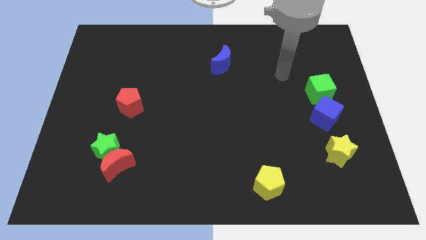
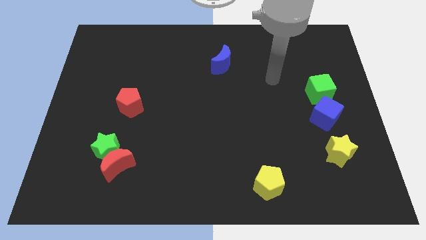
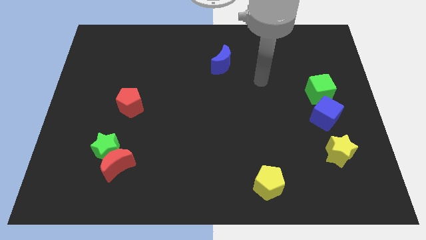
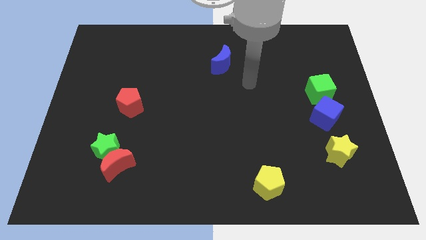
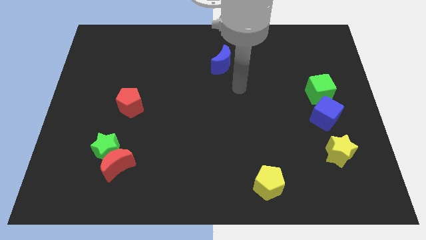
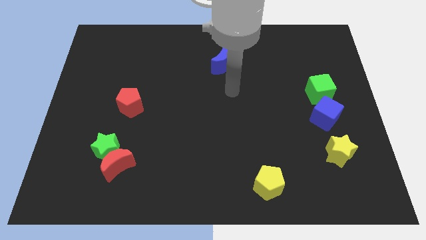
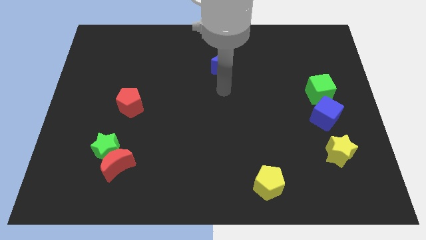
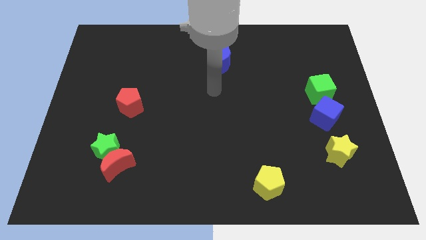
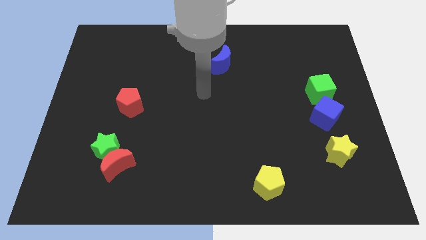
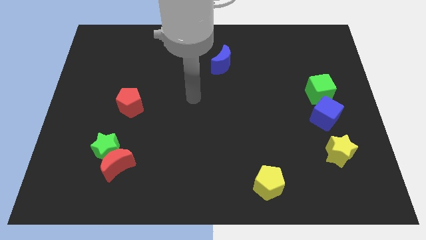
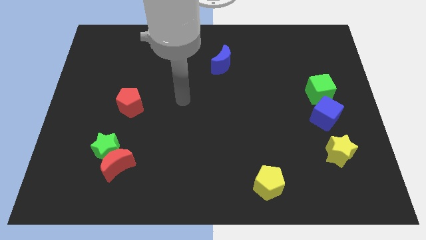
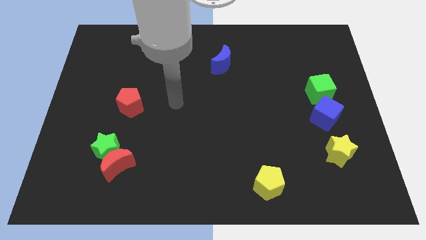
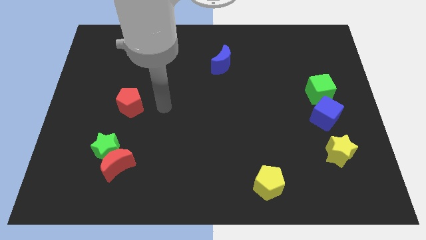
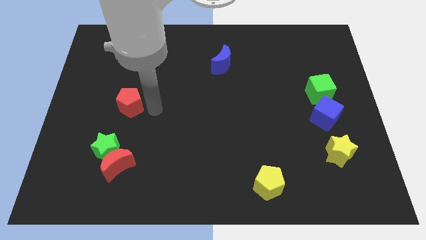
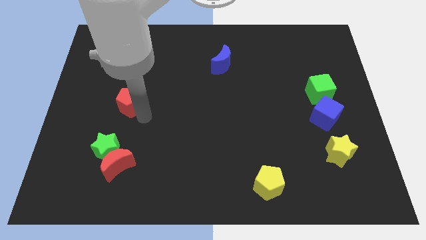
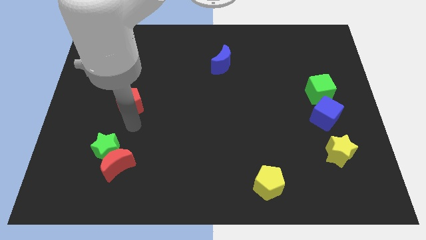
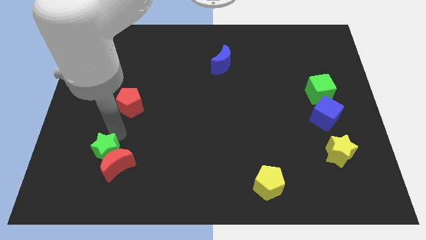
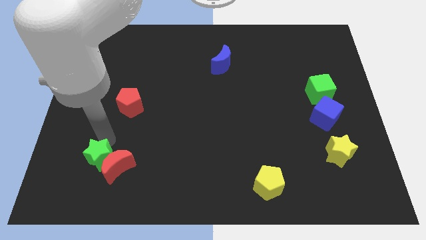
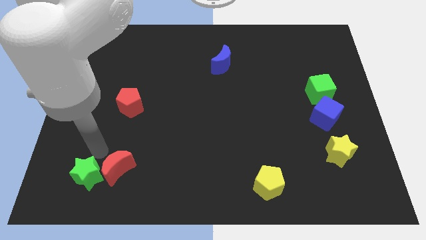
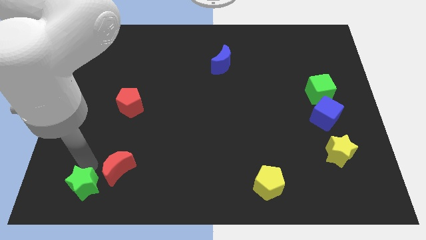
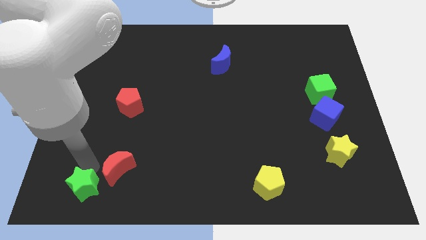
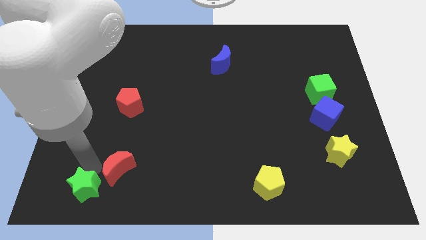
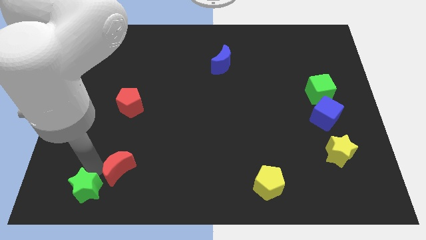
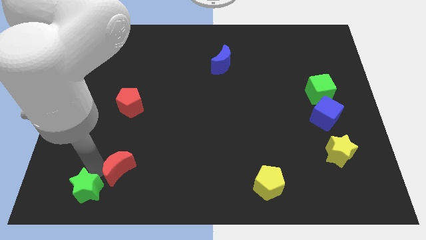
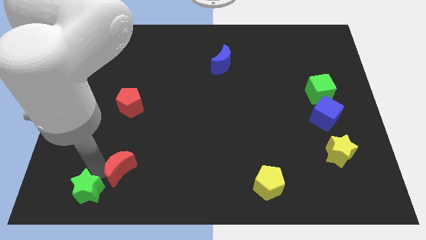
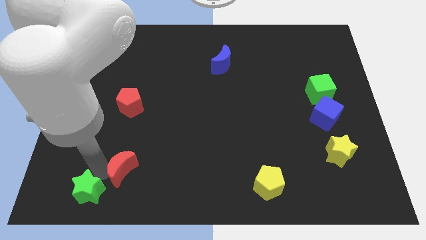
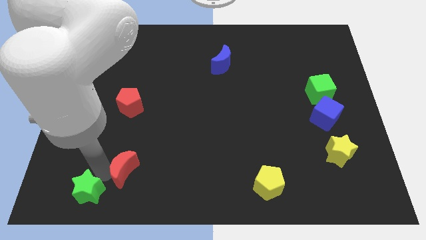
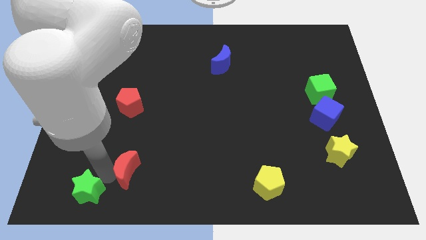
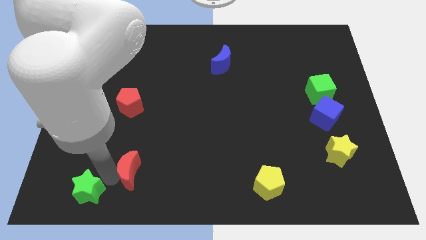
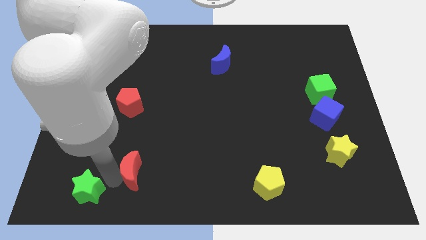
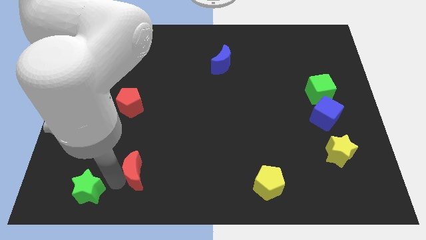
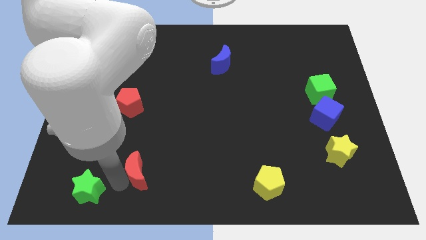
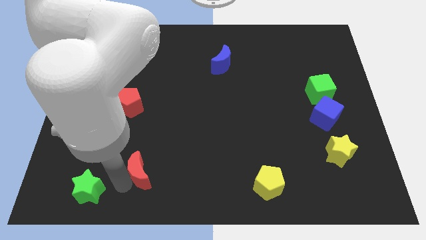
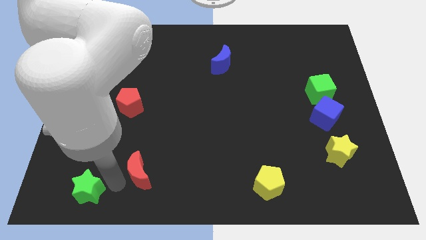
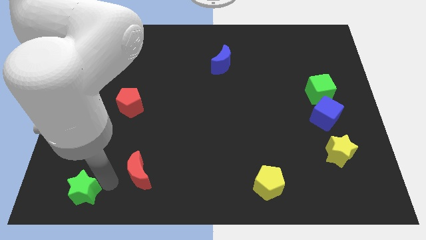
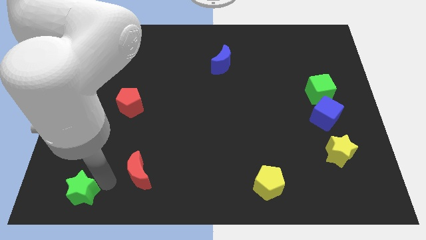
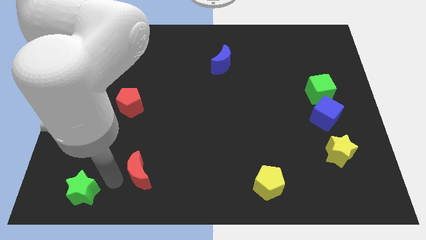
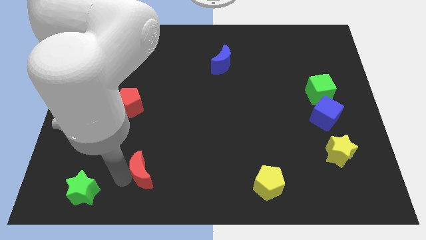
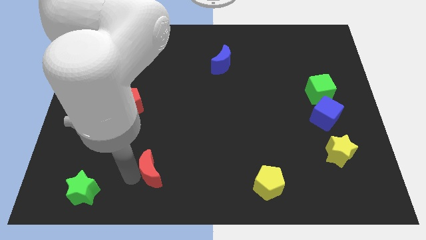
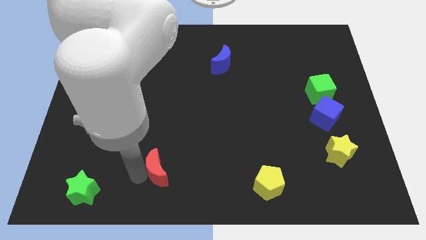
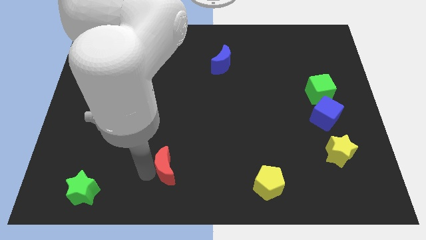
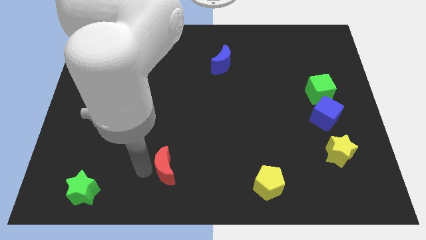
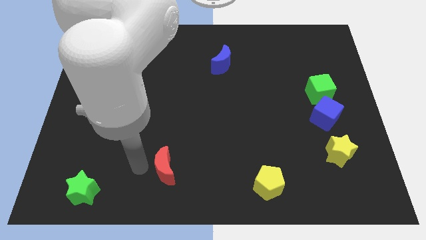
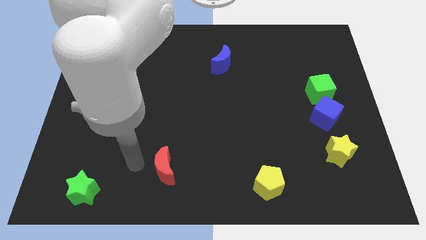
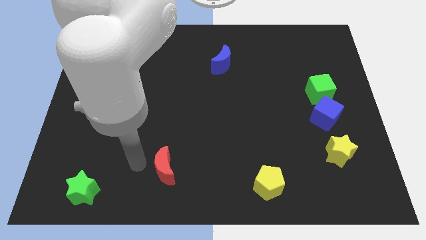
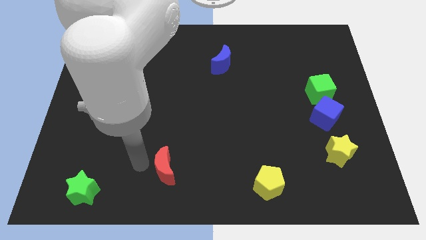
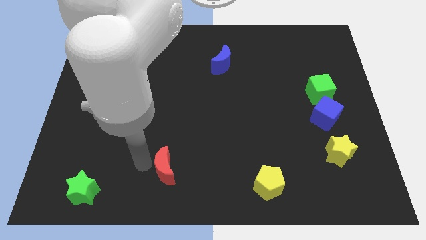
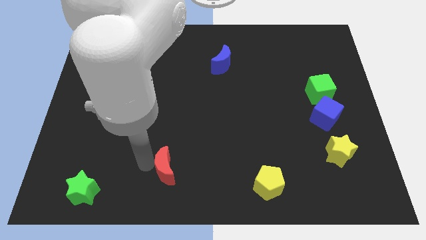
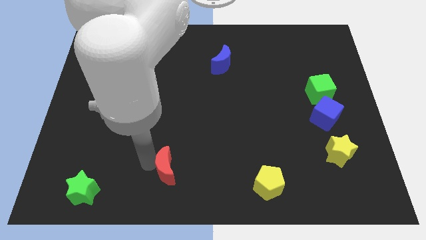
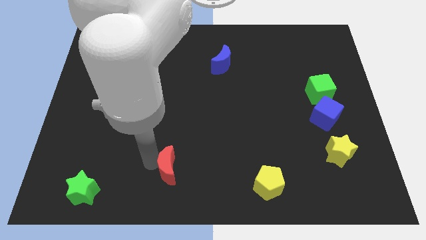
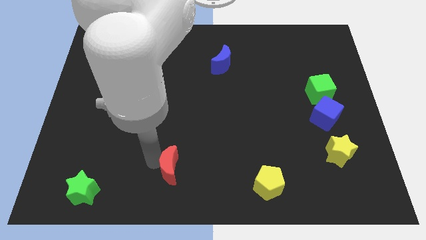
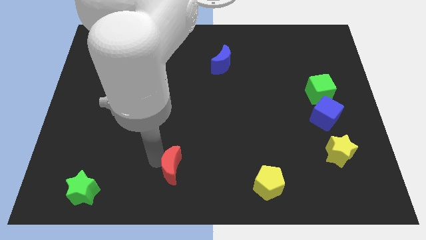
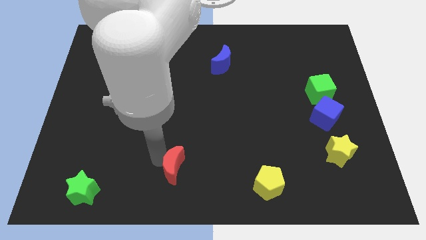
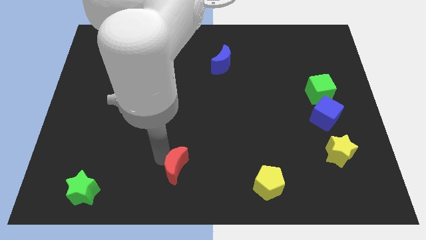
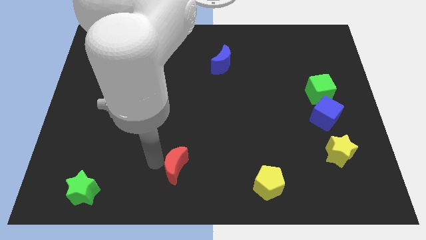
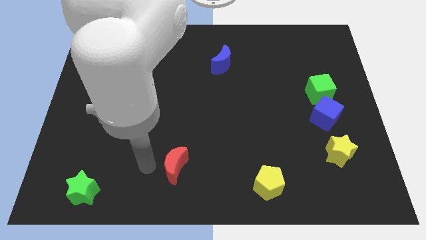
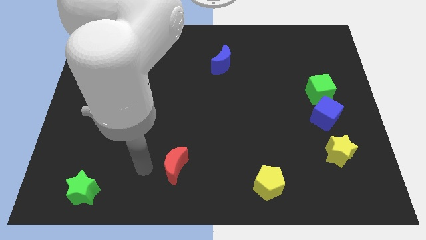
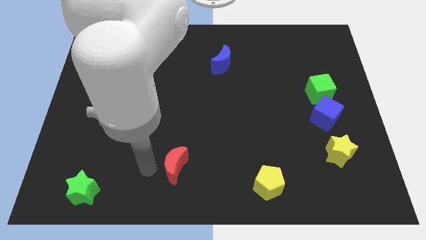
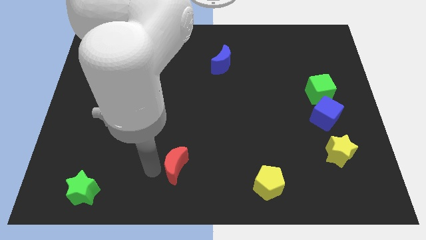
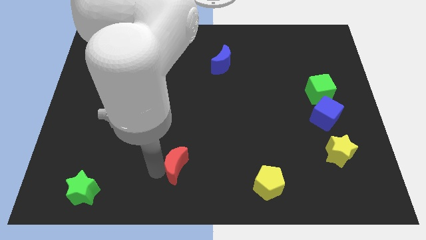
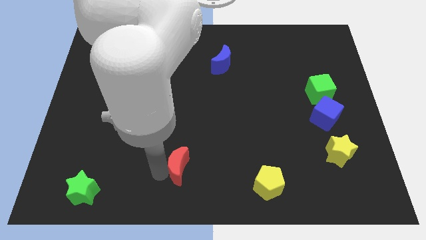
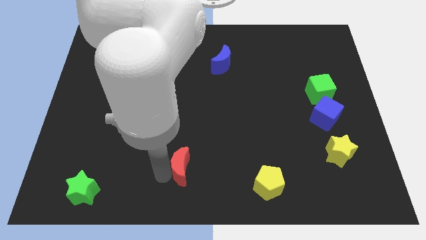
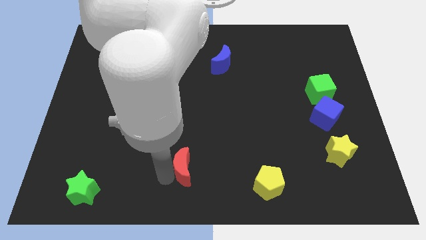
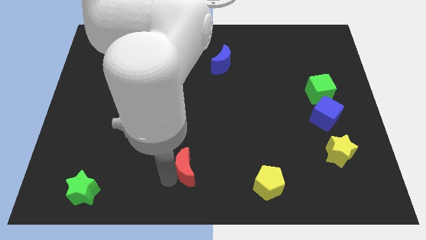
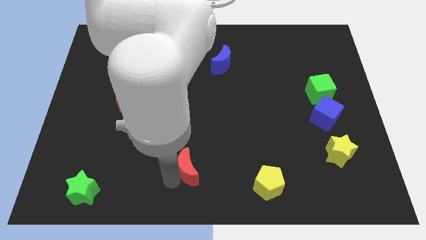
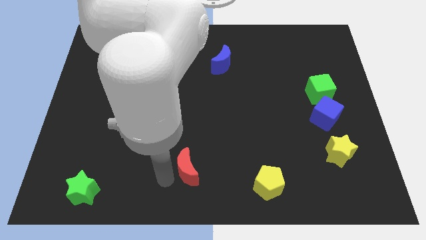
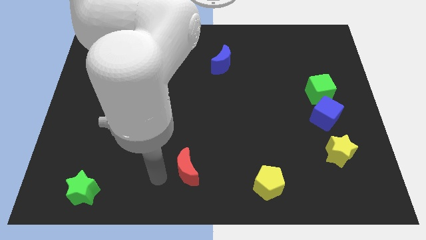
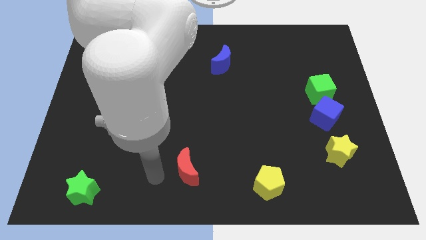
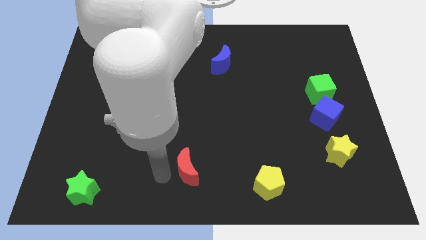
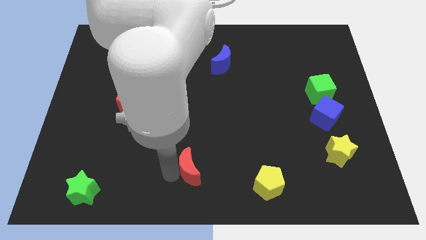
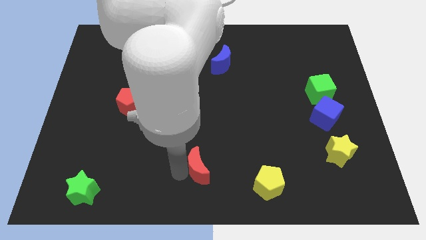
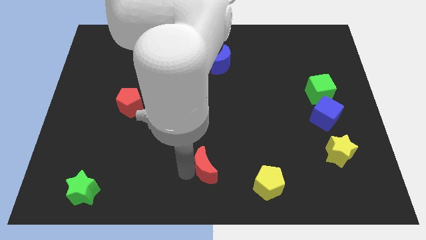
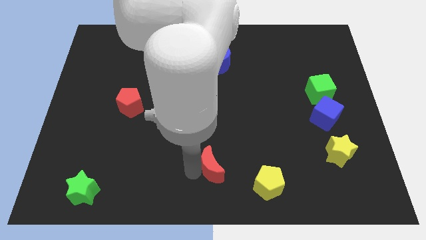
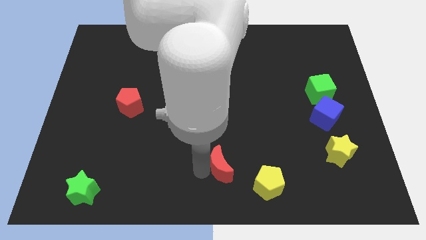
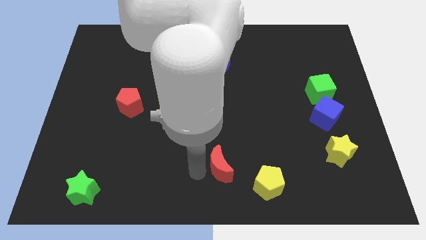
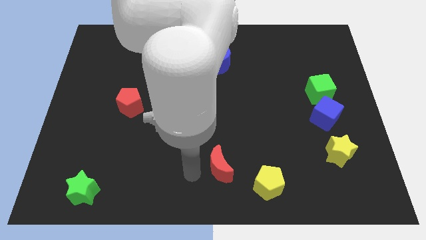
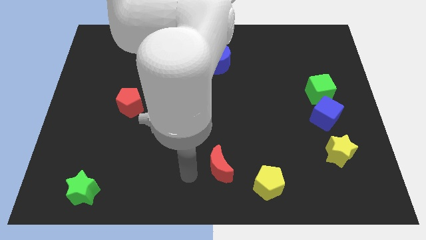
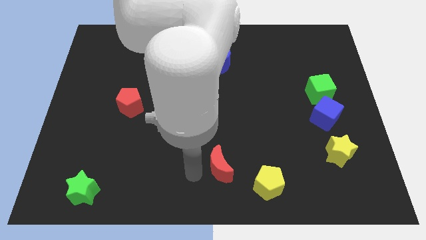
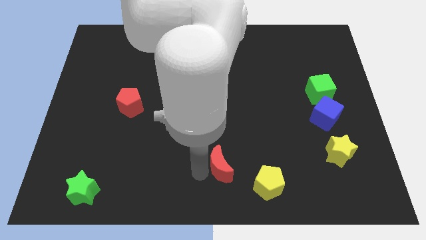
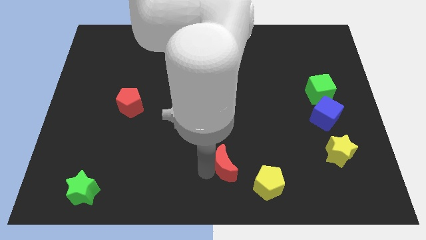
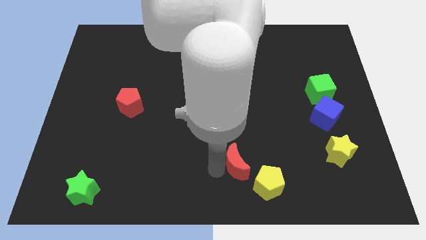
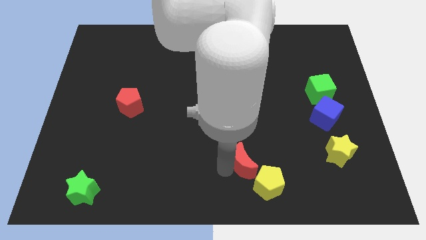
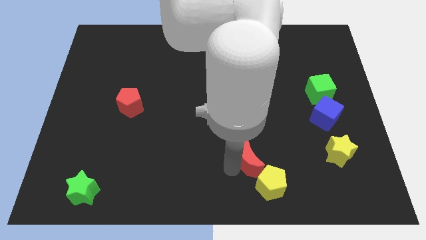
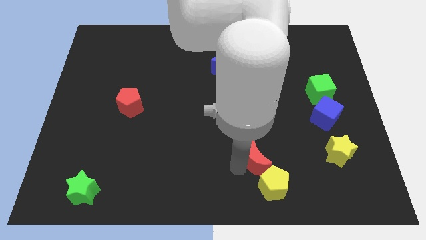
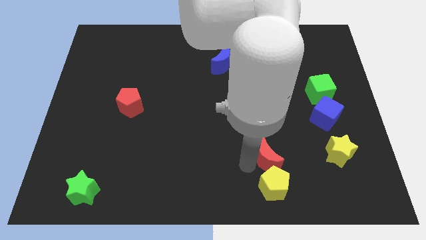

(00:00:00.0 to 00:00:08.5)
push the red moon to the left of the yellow star
